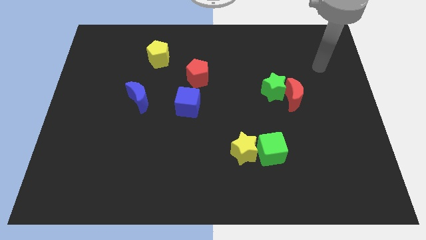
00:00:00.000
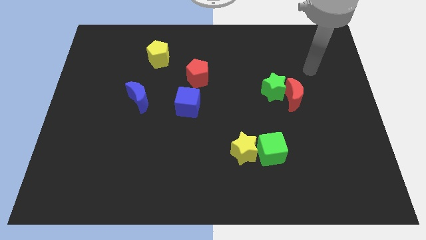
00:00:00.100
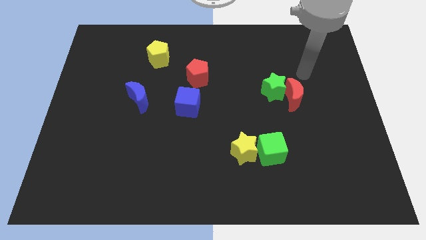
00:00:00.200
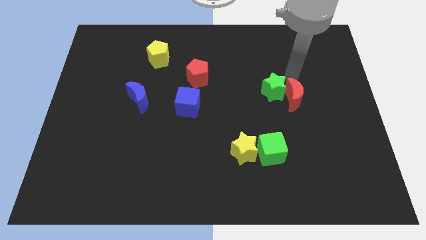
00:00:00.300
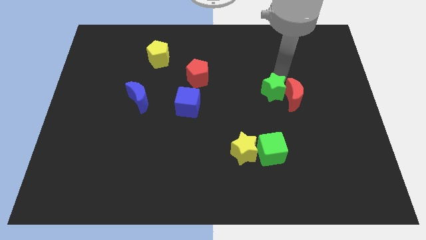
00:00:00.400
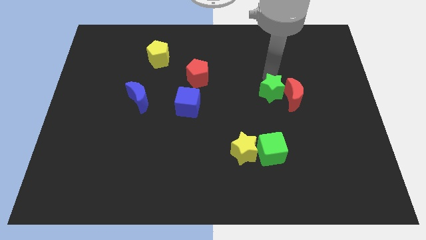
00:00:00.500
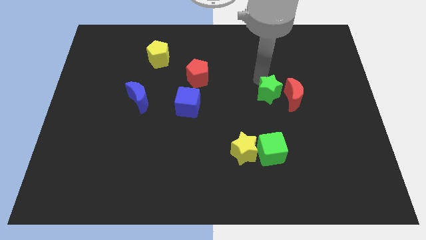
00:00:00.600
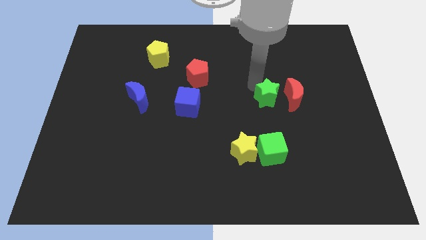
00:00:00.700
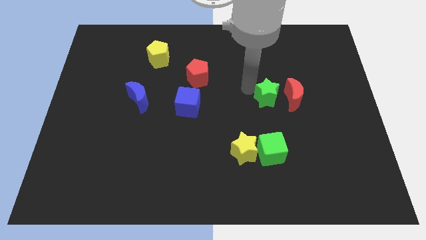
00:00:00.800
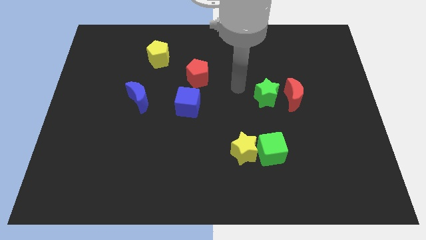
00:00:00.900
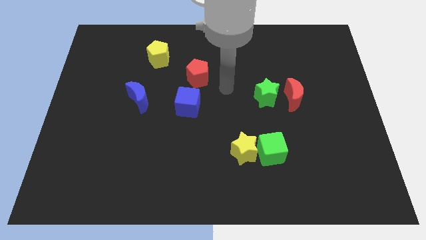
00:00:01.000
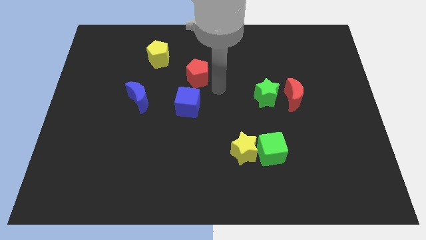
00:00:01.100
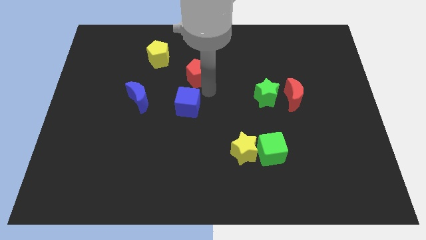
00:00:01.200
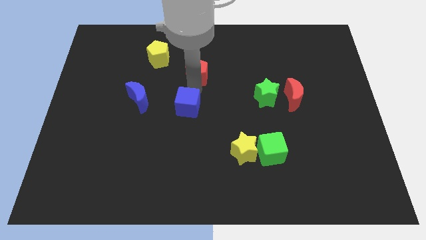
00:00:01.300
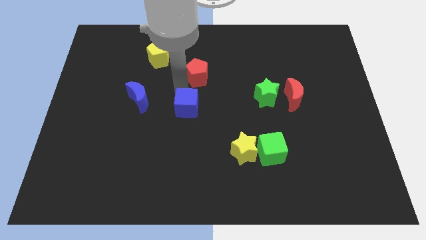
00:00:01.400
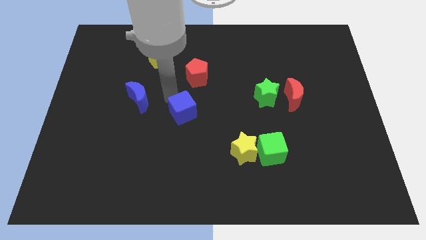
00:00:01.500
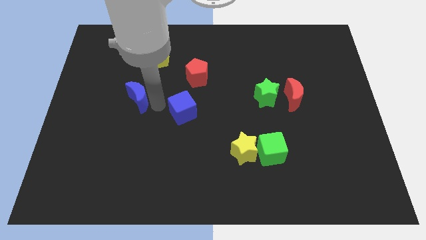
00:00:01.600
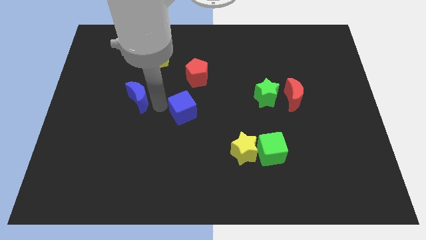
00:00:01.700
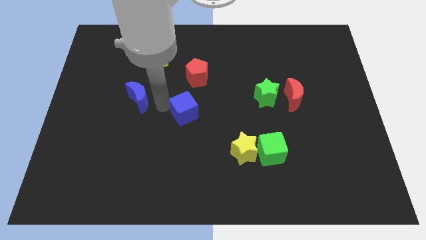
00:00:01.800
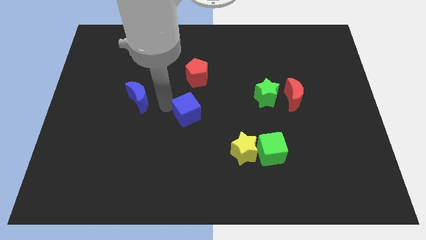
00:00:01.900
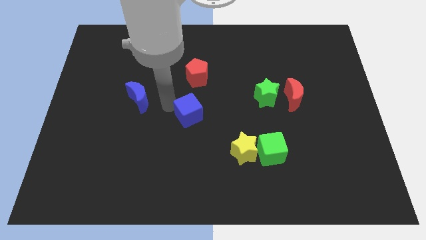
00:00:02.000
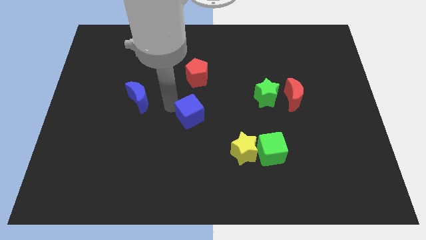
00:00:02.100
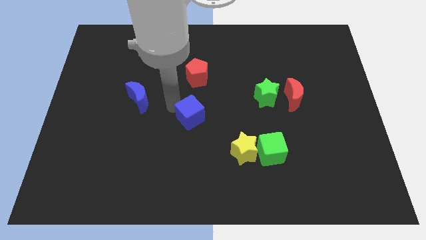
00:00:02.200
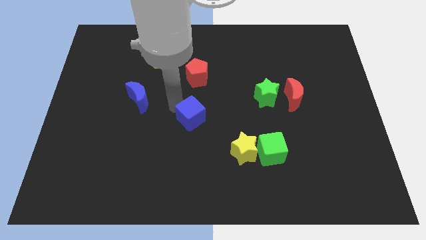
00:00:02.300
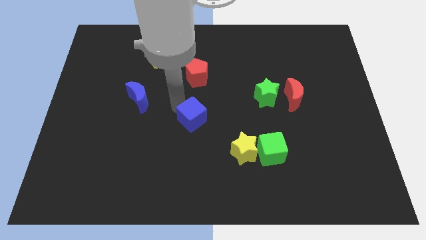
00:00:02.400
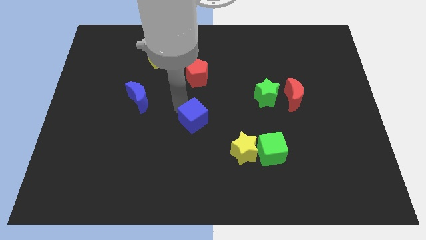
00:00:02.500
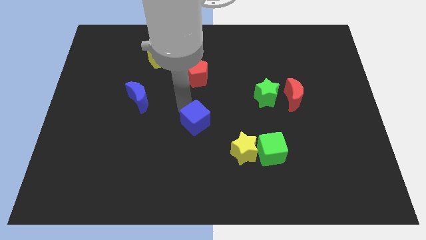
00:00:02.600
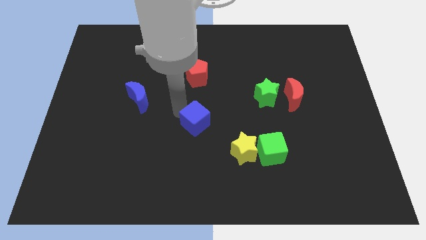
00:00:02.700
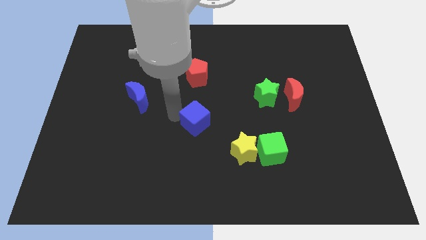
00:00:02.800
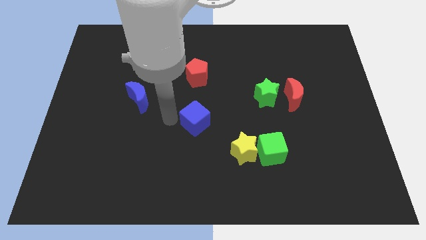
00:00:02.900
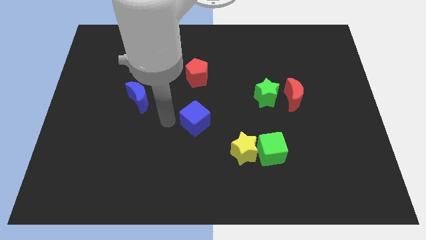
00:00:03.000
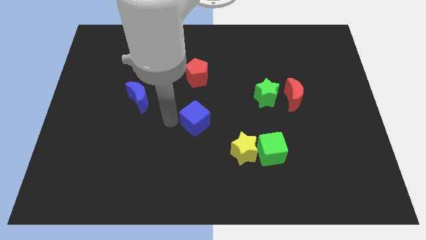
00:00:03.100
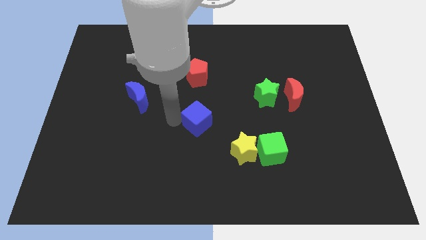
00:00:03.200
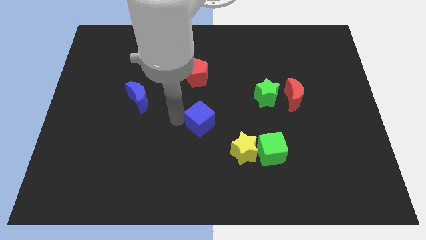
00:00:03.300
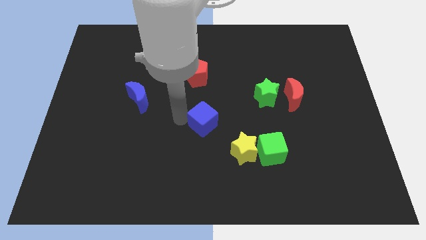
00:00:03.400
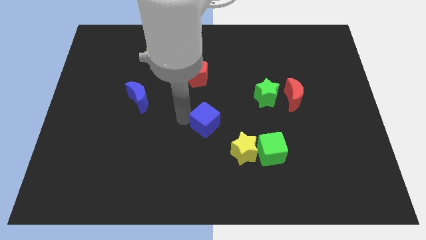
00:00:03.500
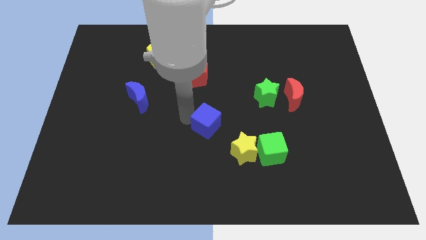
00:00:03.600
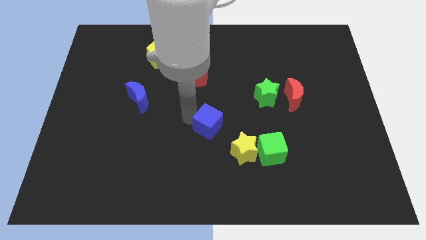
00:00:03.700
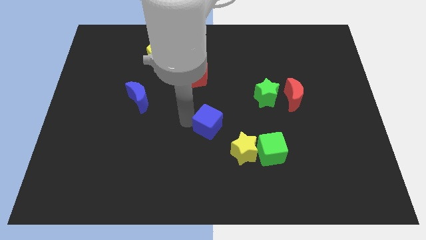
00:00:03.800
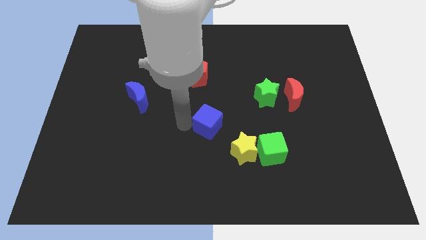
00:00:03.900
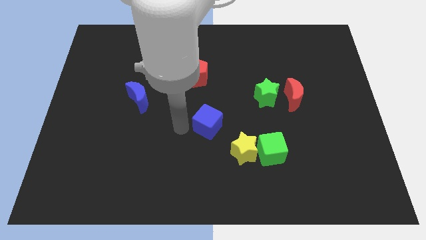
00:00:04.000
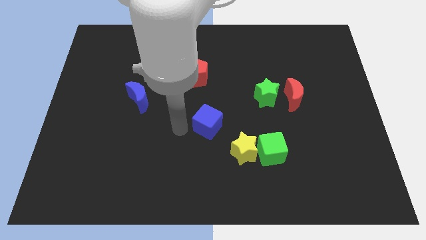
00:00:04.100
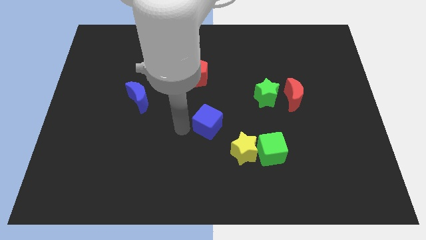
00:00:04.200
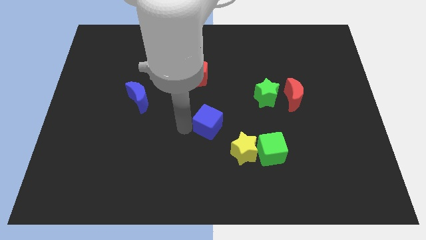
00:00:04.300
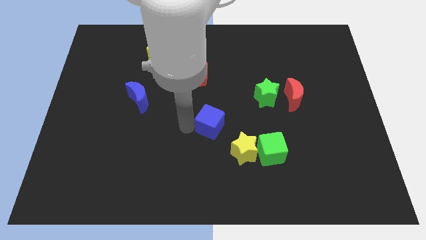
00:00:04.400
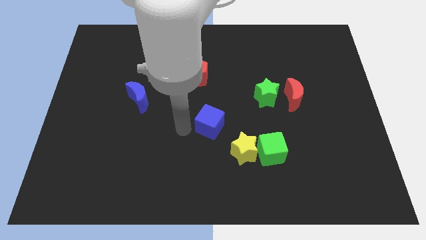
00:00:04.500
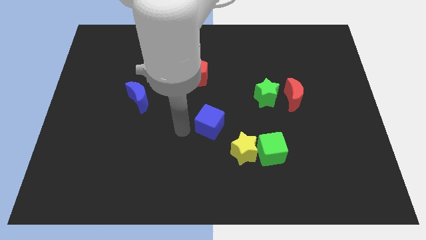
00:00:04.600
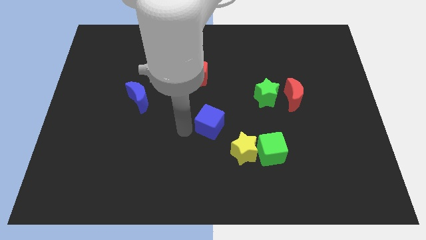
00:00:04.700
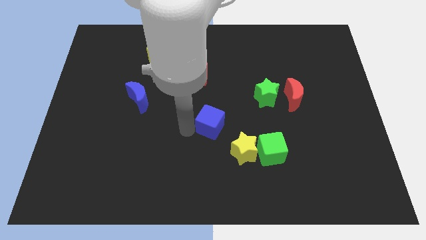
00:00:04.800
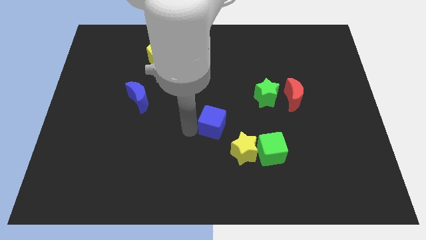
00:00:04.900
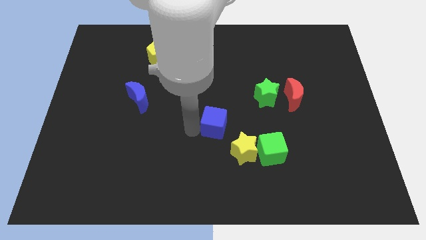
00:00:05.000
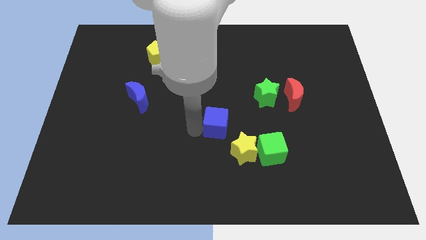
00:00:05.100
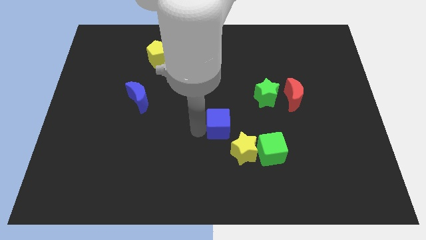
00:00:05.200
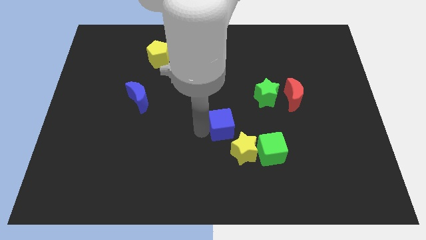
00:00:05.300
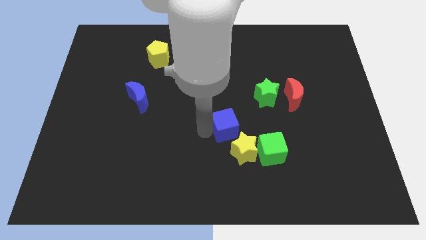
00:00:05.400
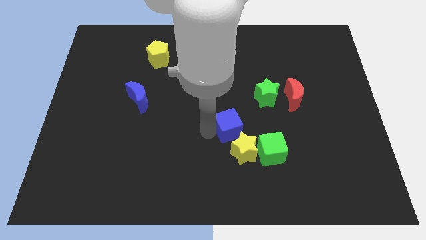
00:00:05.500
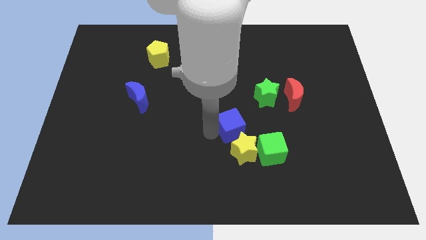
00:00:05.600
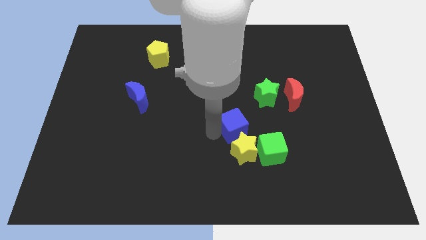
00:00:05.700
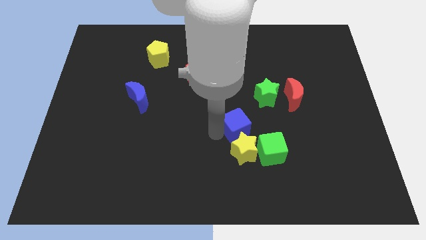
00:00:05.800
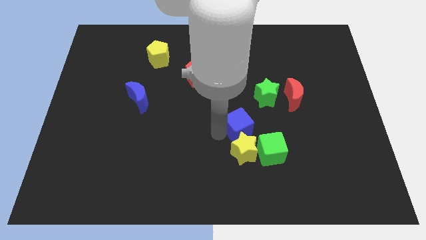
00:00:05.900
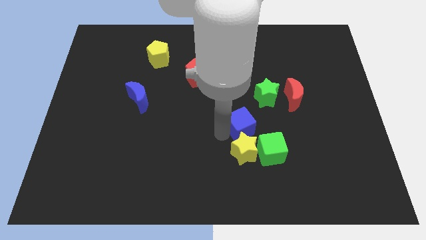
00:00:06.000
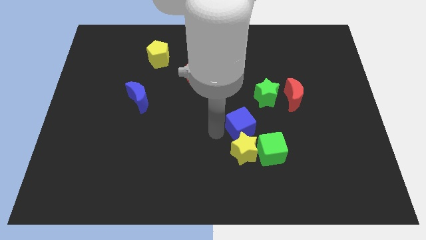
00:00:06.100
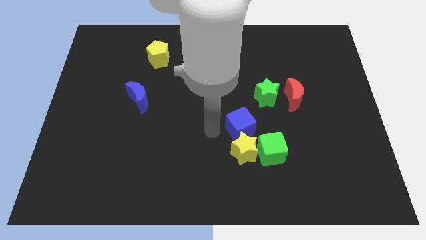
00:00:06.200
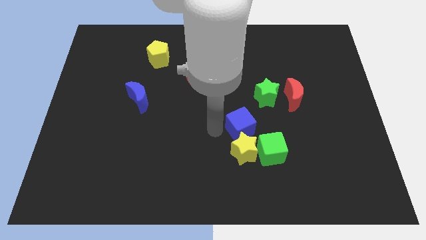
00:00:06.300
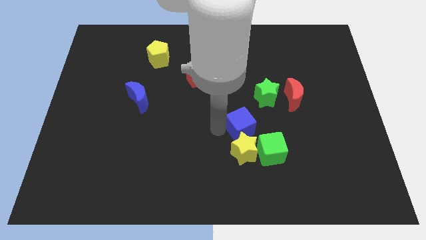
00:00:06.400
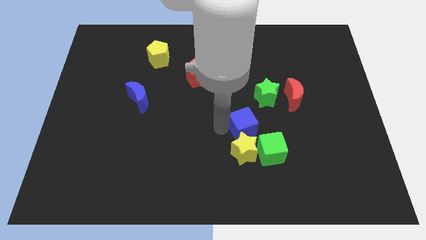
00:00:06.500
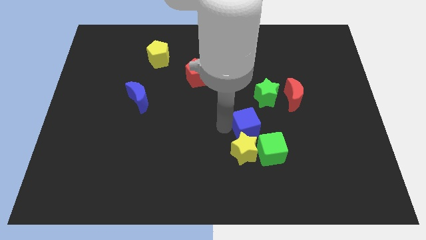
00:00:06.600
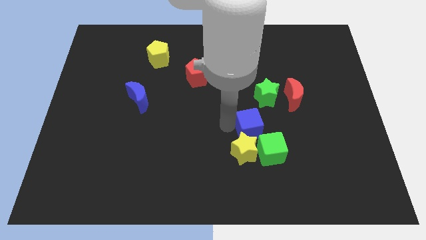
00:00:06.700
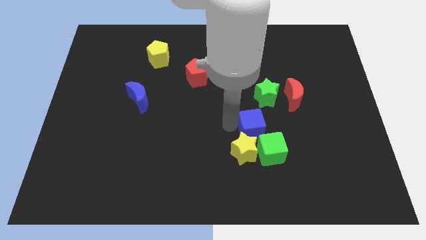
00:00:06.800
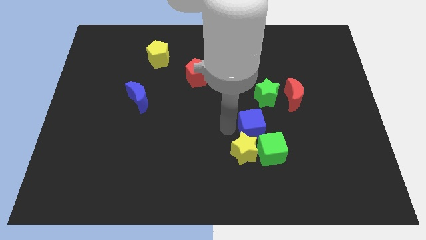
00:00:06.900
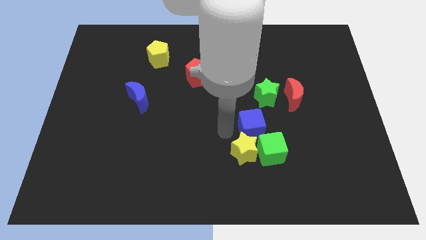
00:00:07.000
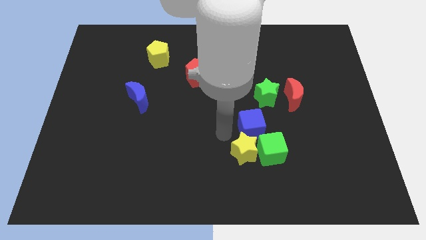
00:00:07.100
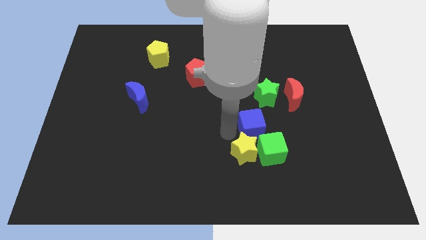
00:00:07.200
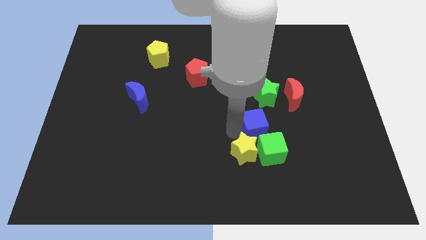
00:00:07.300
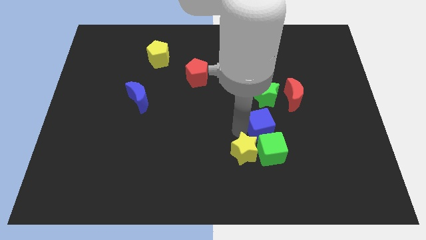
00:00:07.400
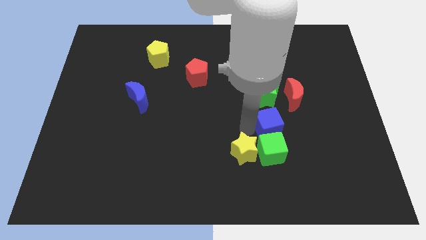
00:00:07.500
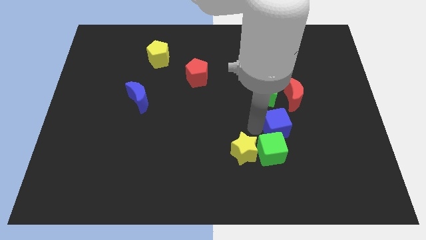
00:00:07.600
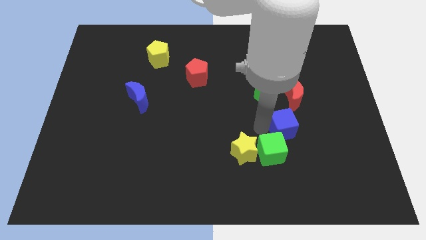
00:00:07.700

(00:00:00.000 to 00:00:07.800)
move the blue cube right

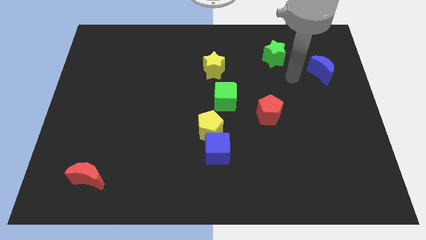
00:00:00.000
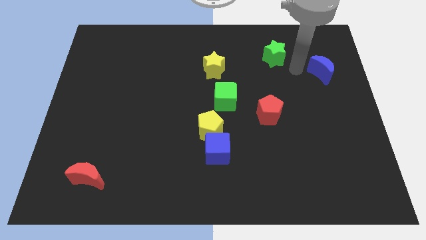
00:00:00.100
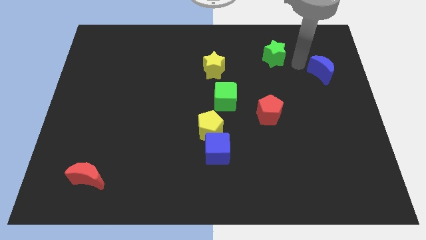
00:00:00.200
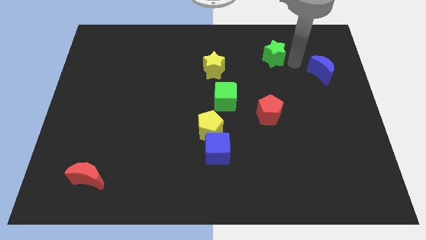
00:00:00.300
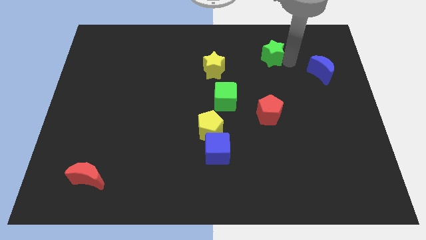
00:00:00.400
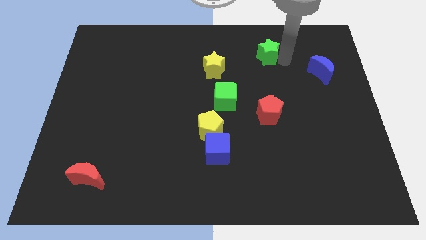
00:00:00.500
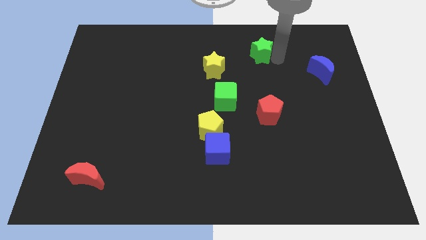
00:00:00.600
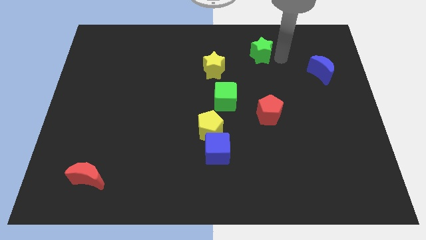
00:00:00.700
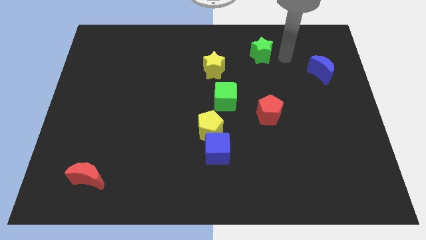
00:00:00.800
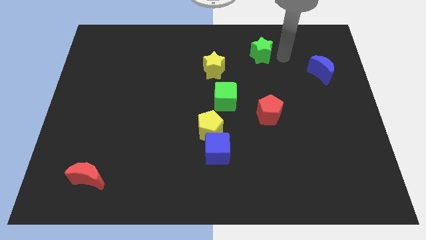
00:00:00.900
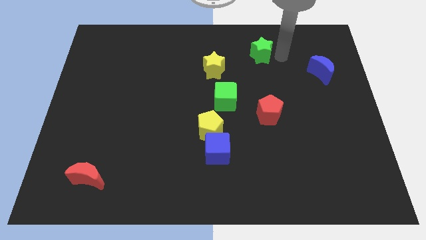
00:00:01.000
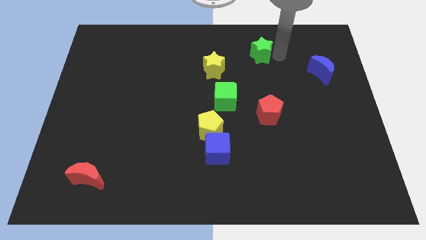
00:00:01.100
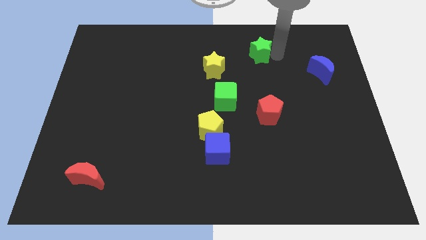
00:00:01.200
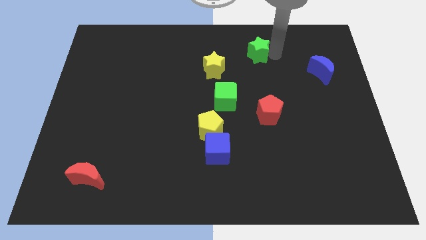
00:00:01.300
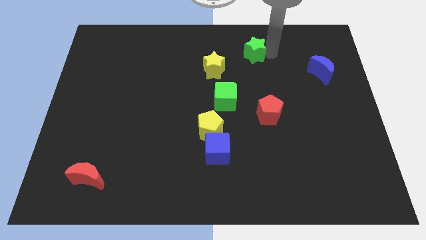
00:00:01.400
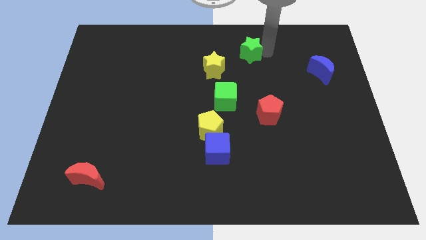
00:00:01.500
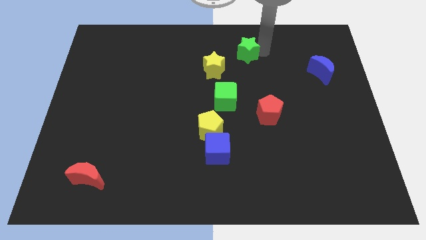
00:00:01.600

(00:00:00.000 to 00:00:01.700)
slightly move the green star to the left
